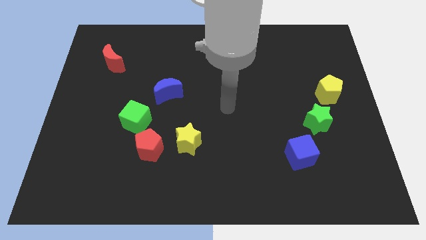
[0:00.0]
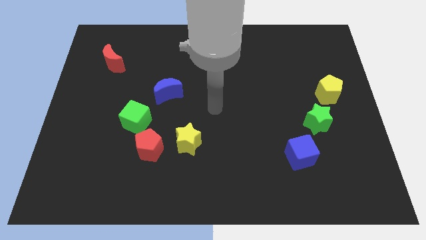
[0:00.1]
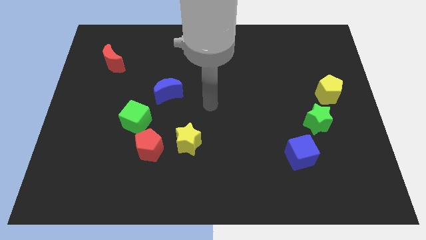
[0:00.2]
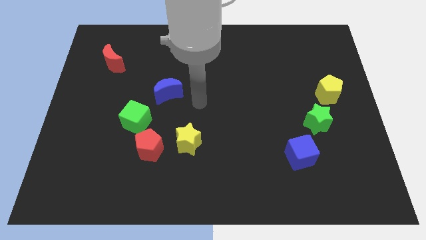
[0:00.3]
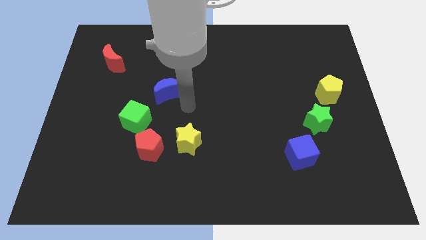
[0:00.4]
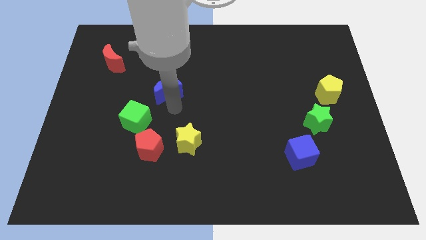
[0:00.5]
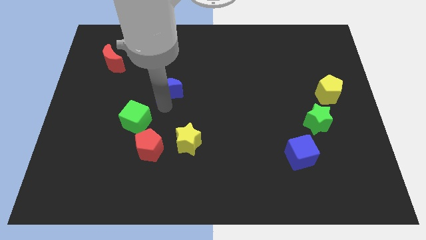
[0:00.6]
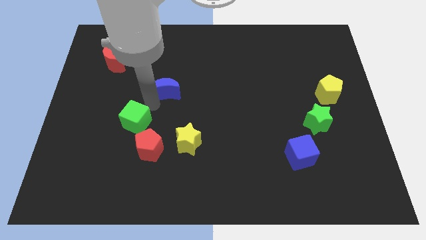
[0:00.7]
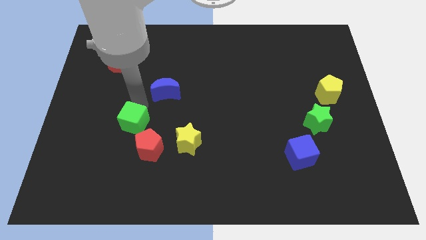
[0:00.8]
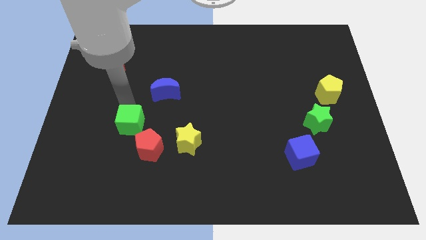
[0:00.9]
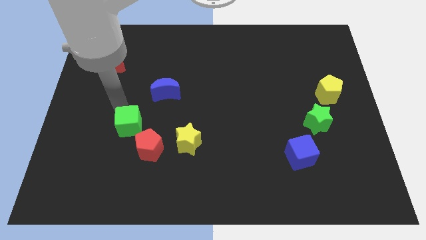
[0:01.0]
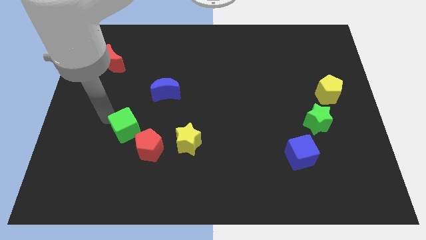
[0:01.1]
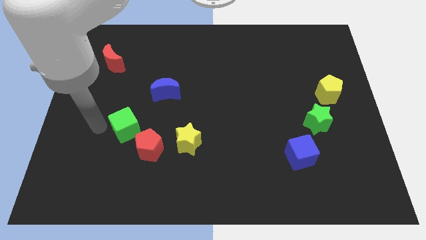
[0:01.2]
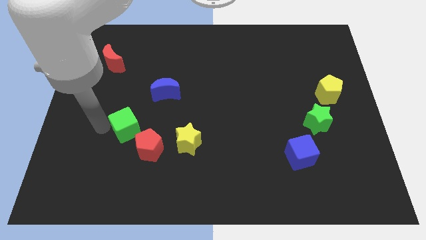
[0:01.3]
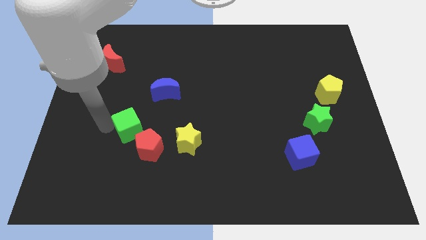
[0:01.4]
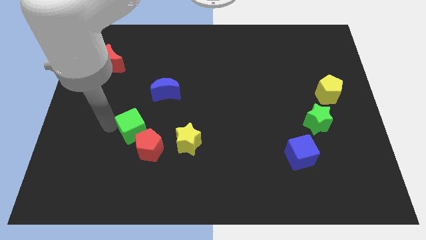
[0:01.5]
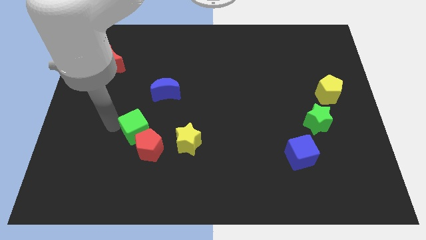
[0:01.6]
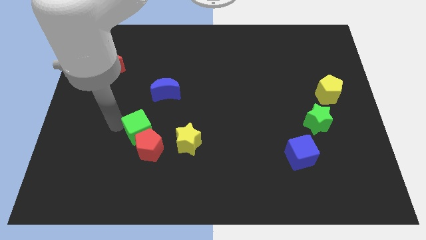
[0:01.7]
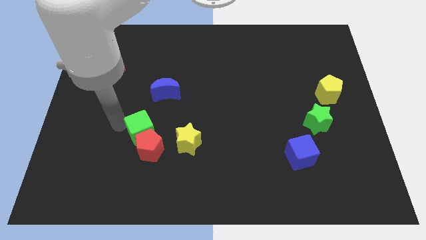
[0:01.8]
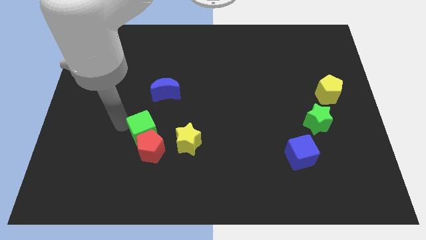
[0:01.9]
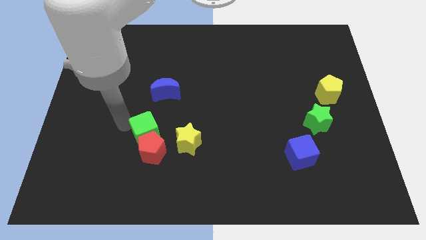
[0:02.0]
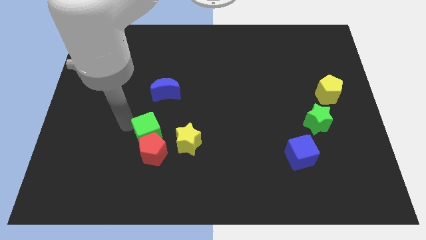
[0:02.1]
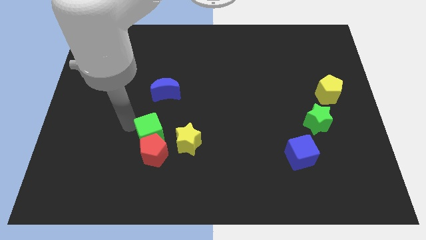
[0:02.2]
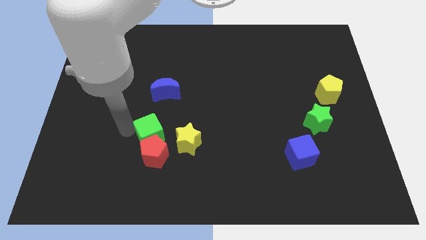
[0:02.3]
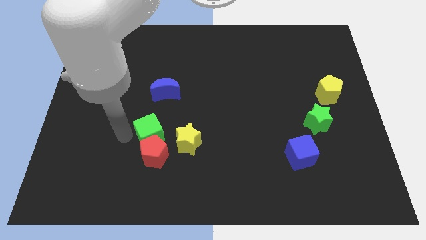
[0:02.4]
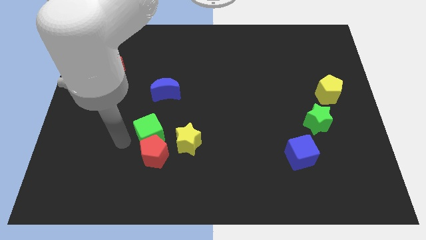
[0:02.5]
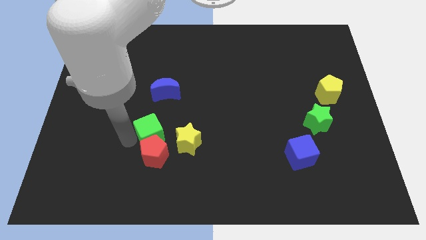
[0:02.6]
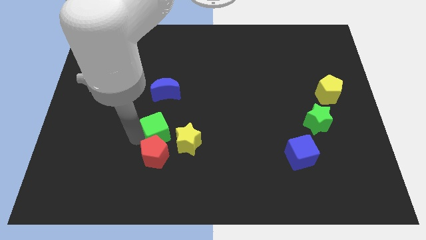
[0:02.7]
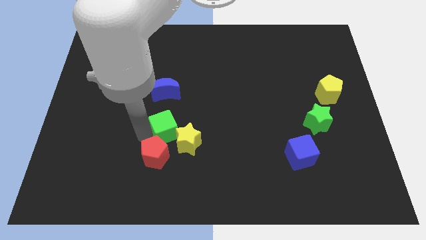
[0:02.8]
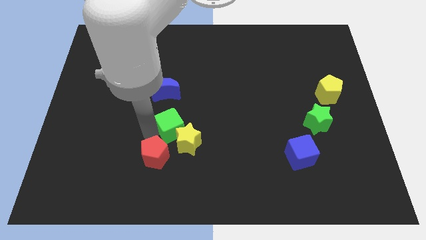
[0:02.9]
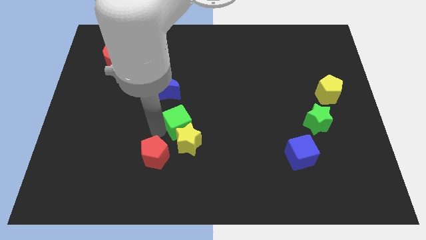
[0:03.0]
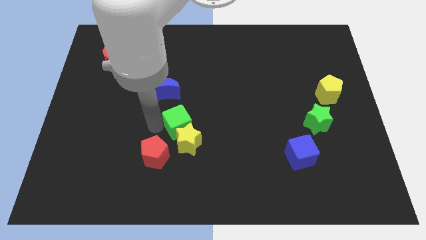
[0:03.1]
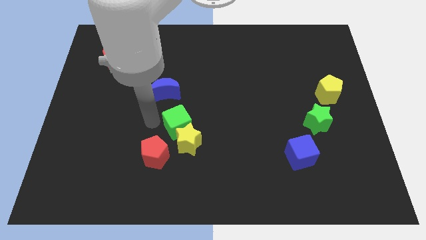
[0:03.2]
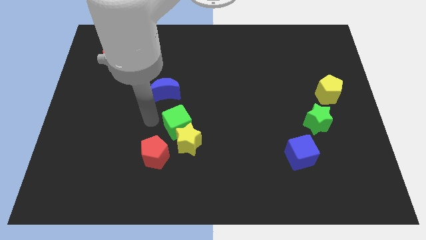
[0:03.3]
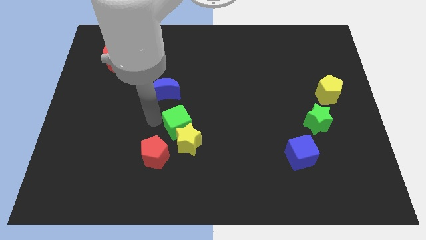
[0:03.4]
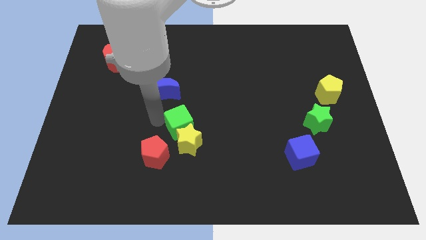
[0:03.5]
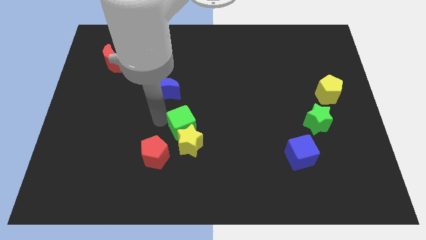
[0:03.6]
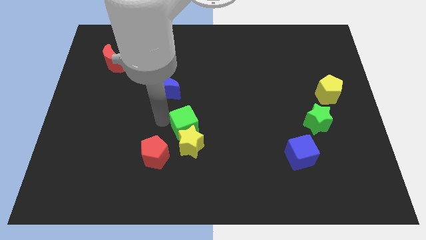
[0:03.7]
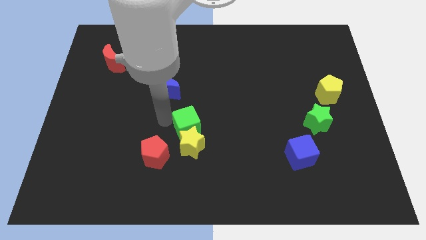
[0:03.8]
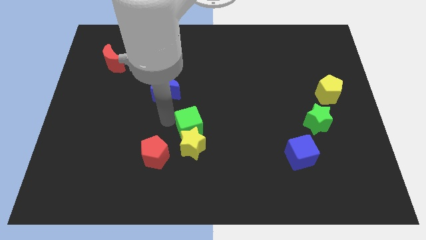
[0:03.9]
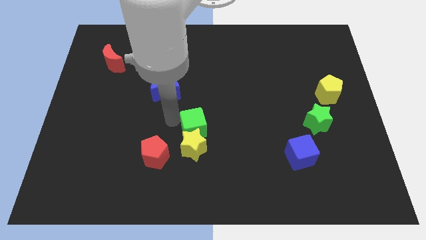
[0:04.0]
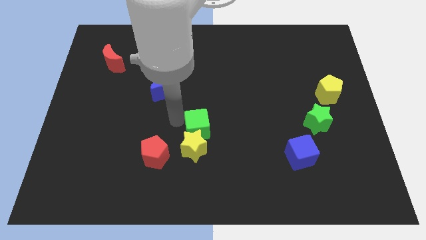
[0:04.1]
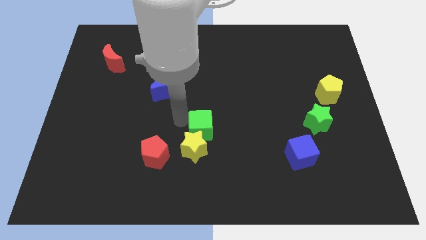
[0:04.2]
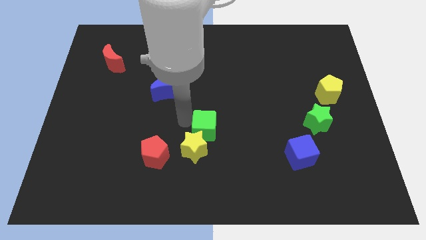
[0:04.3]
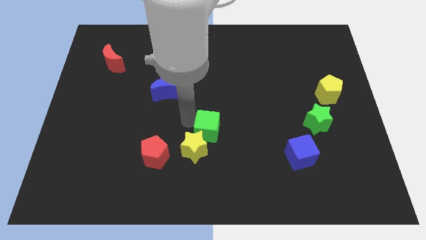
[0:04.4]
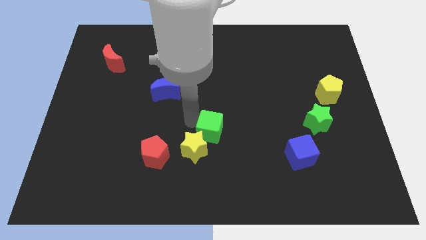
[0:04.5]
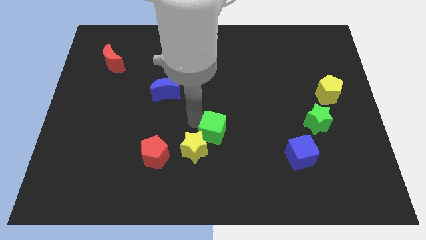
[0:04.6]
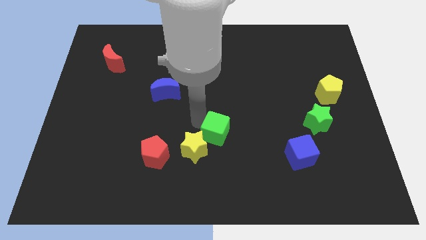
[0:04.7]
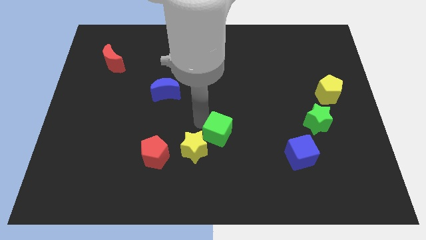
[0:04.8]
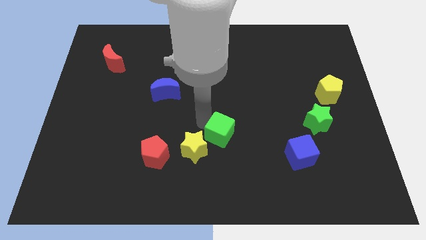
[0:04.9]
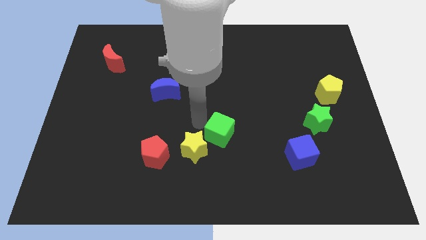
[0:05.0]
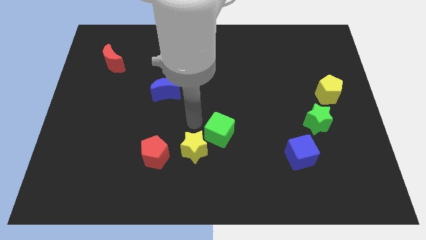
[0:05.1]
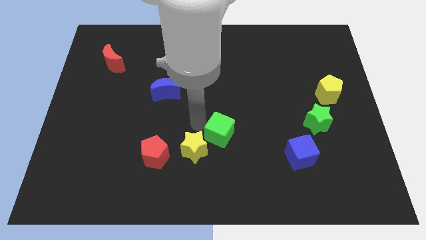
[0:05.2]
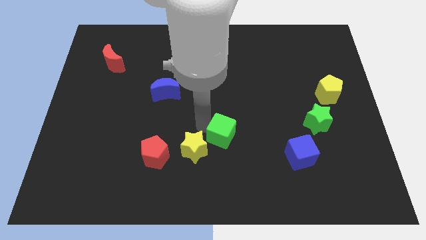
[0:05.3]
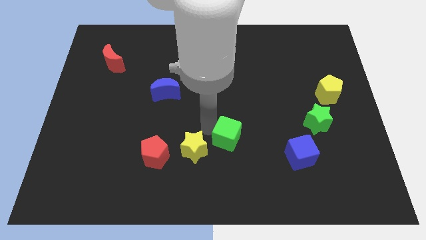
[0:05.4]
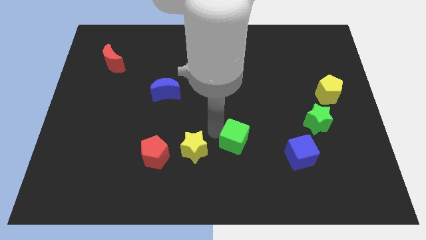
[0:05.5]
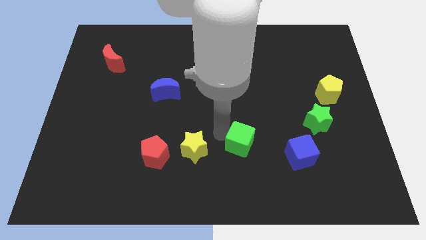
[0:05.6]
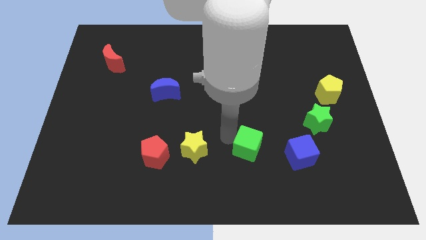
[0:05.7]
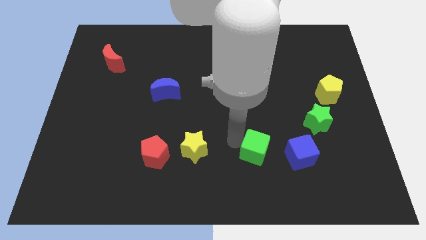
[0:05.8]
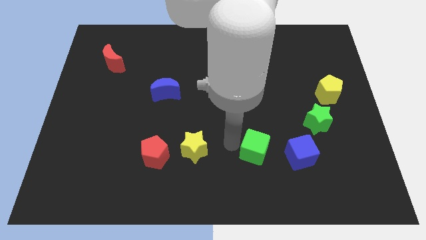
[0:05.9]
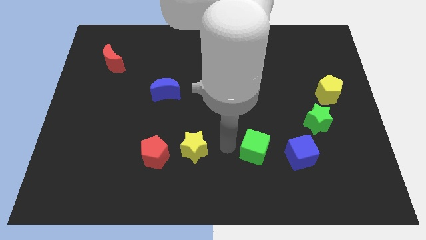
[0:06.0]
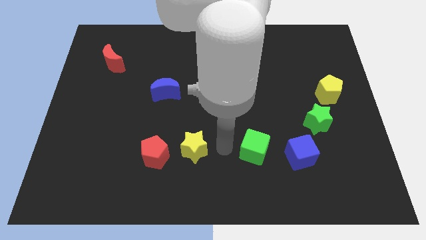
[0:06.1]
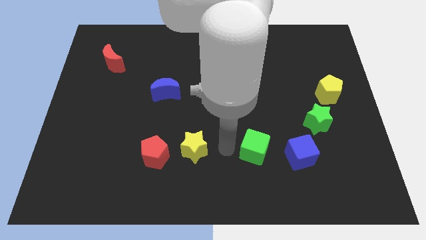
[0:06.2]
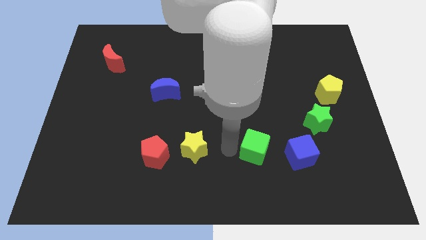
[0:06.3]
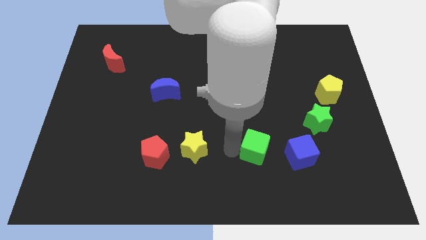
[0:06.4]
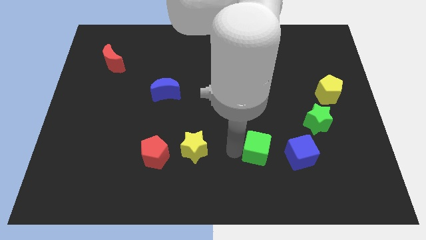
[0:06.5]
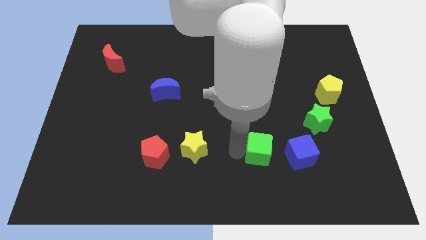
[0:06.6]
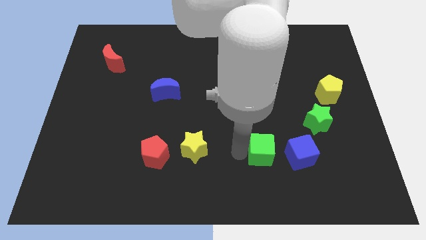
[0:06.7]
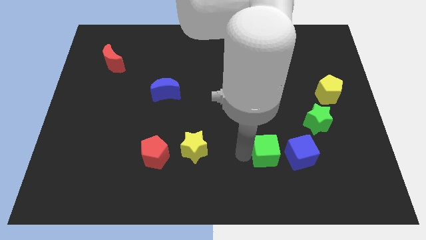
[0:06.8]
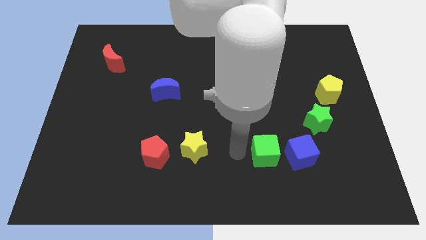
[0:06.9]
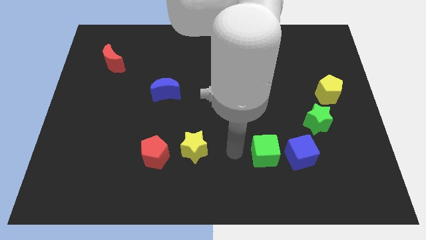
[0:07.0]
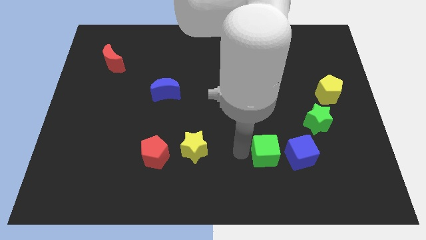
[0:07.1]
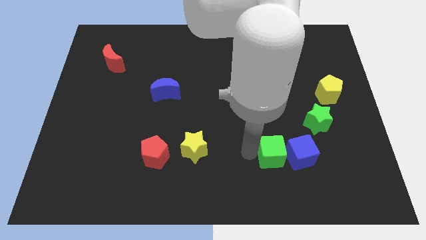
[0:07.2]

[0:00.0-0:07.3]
put the green cube towards the blue cube
